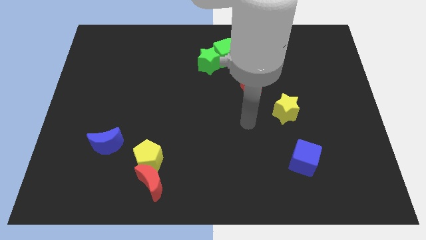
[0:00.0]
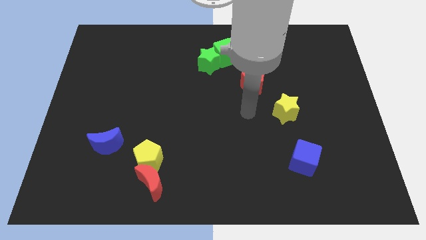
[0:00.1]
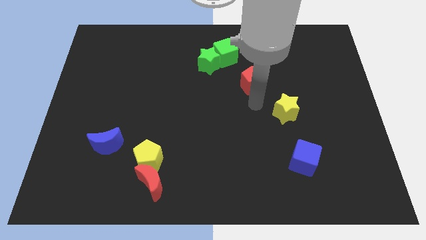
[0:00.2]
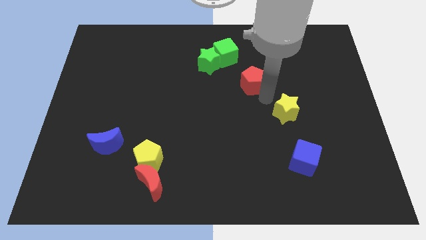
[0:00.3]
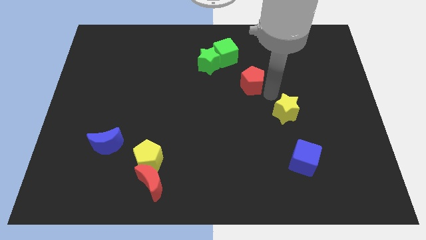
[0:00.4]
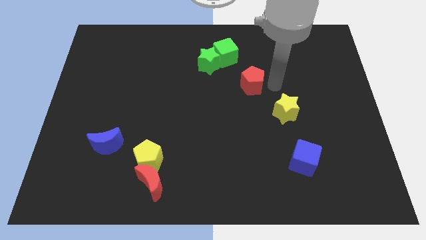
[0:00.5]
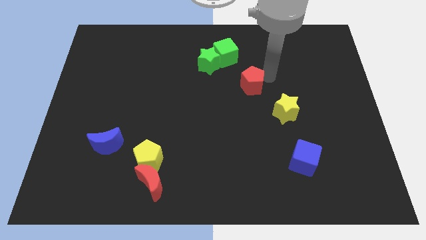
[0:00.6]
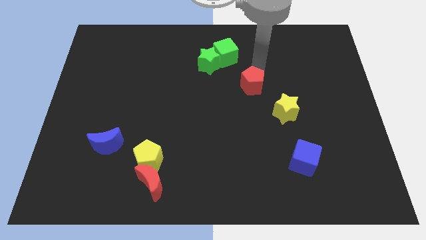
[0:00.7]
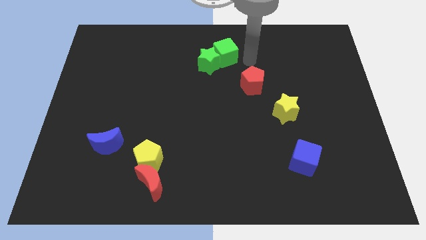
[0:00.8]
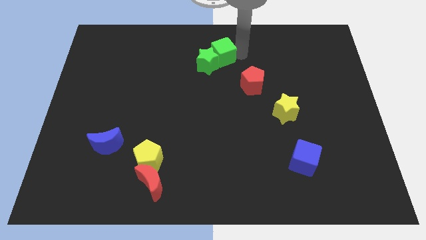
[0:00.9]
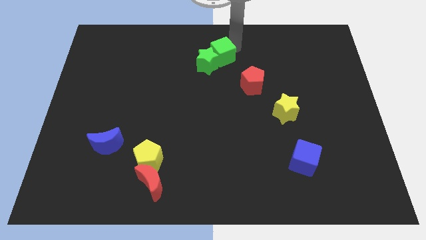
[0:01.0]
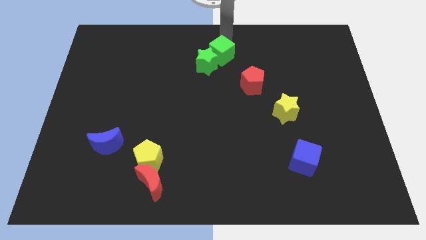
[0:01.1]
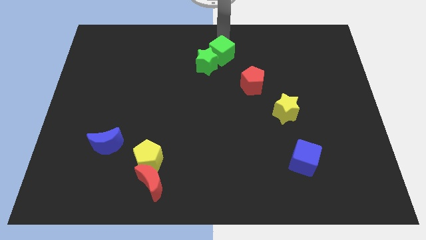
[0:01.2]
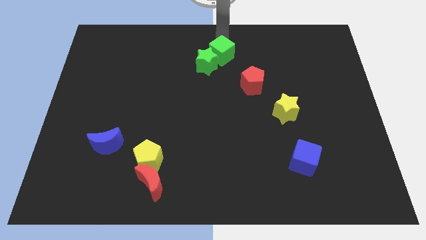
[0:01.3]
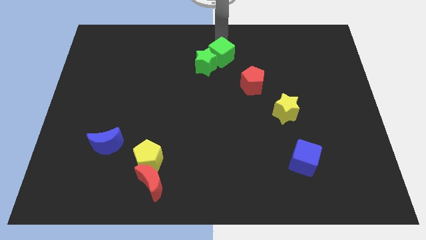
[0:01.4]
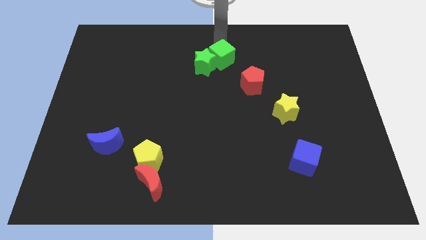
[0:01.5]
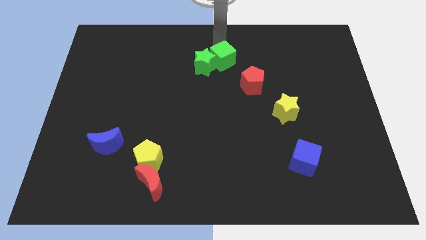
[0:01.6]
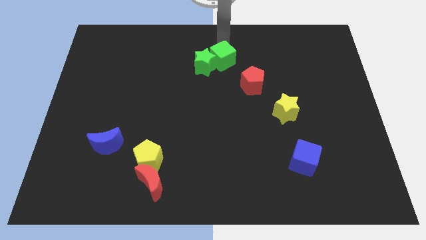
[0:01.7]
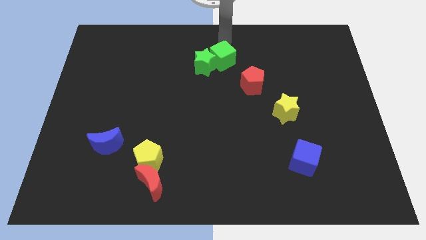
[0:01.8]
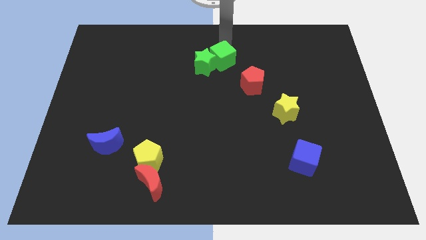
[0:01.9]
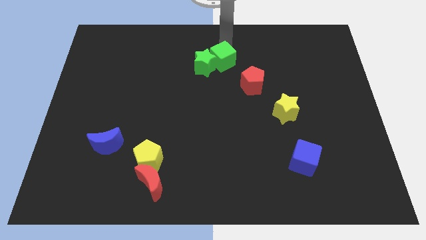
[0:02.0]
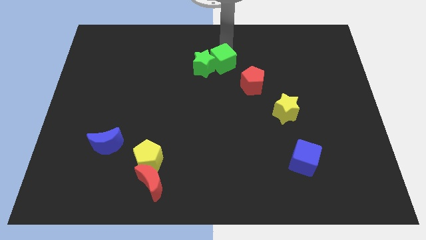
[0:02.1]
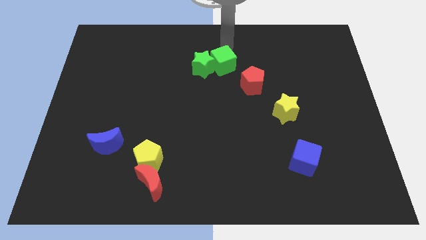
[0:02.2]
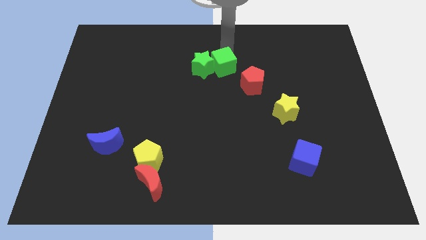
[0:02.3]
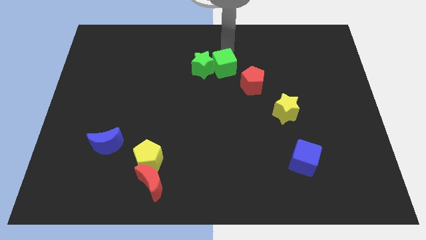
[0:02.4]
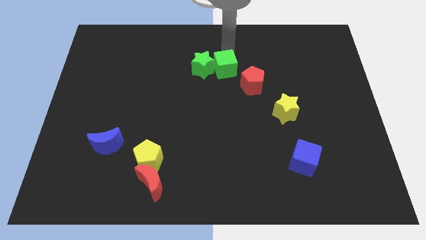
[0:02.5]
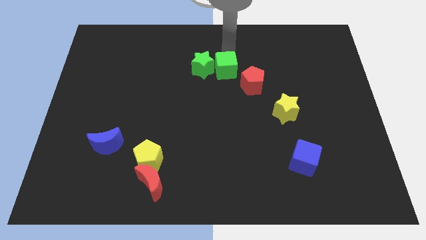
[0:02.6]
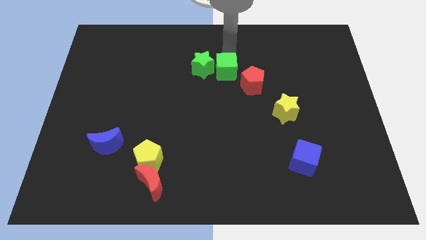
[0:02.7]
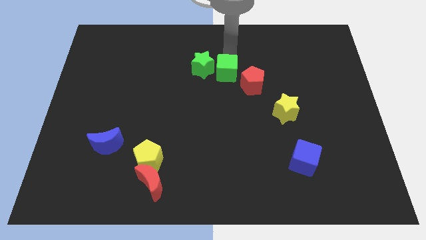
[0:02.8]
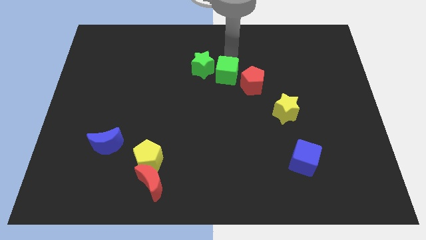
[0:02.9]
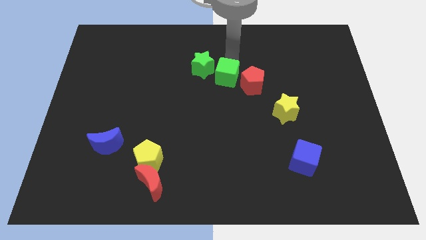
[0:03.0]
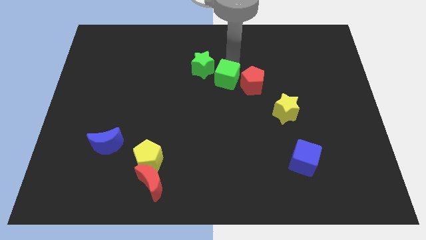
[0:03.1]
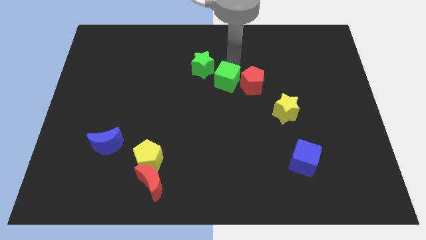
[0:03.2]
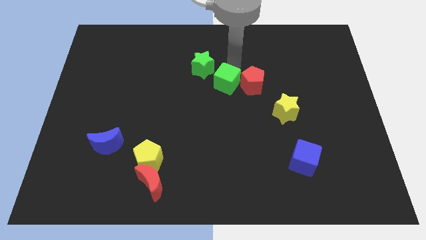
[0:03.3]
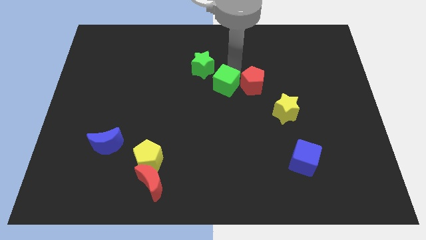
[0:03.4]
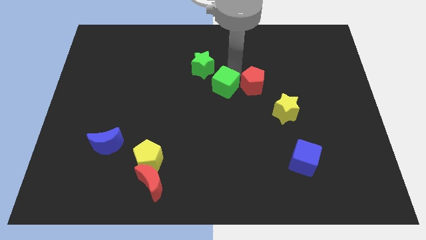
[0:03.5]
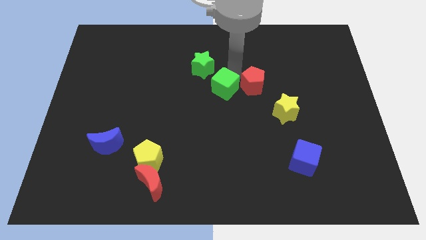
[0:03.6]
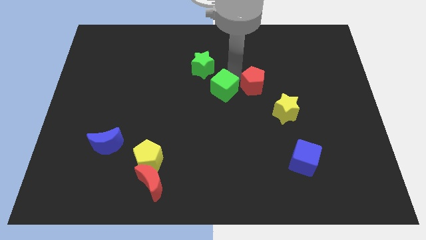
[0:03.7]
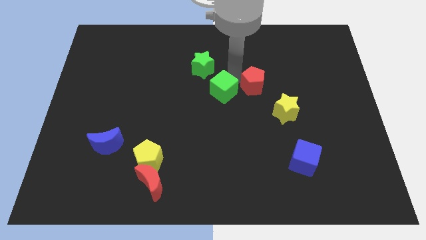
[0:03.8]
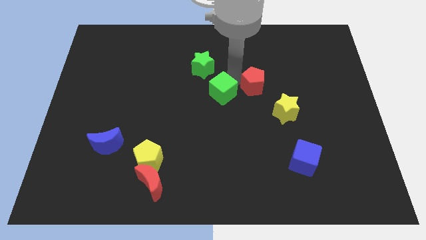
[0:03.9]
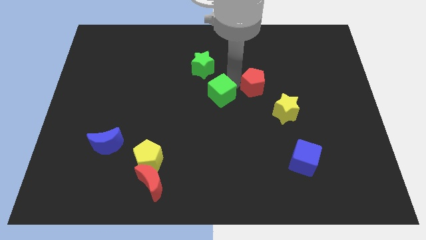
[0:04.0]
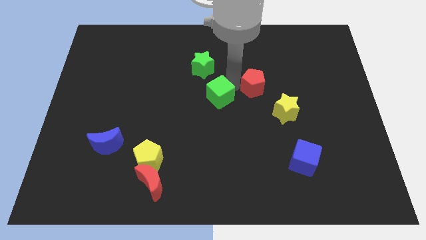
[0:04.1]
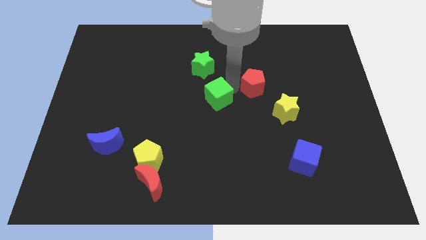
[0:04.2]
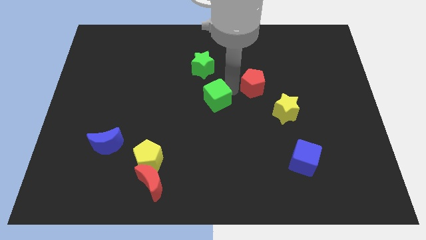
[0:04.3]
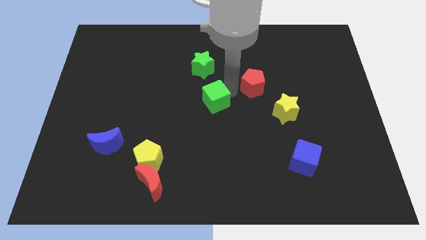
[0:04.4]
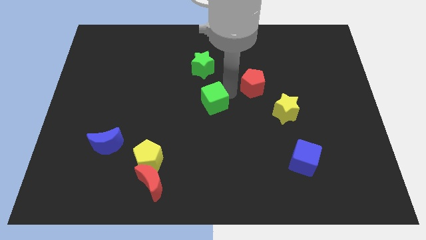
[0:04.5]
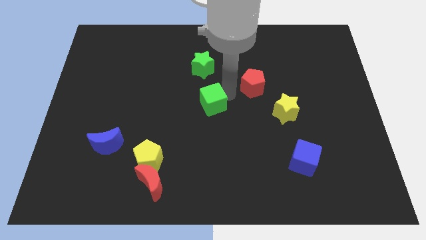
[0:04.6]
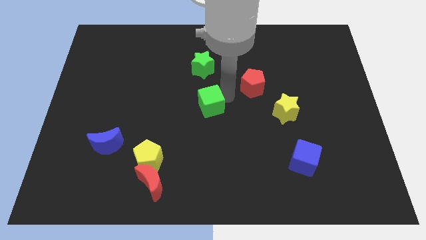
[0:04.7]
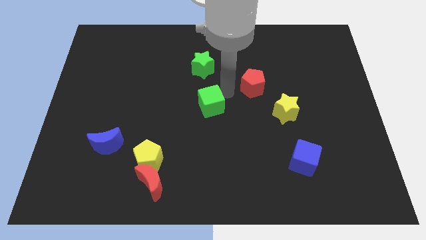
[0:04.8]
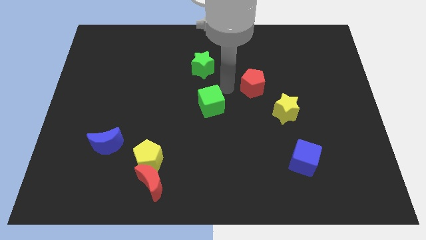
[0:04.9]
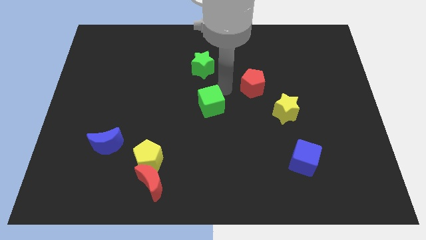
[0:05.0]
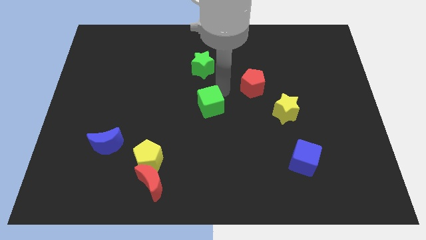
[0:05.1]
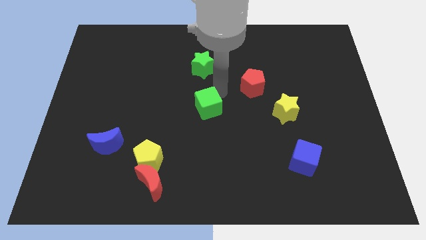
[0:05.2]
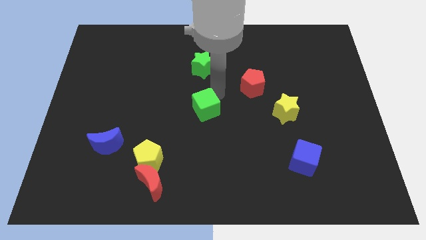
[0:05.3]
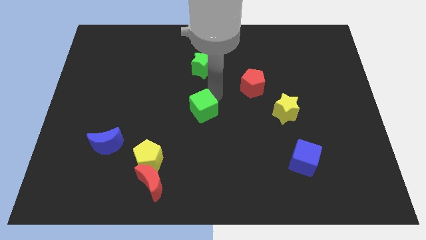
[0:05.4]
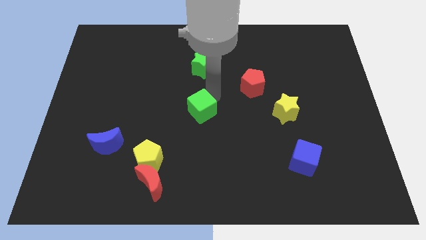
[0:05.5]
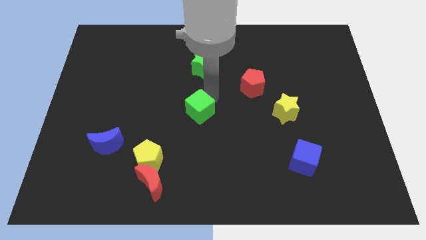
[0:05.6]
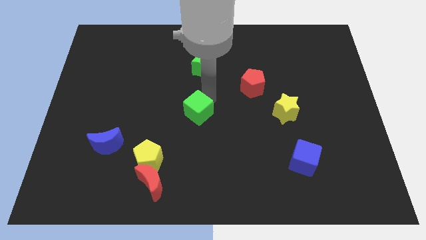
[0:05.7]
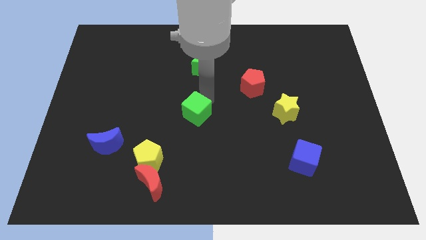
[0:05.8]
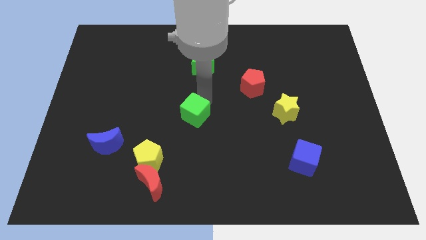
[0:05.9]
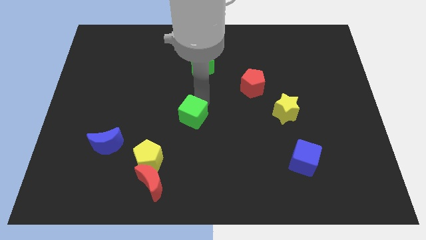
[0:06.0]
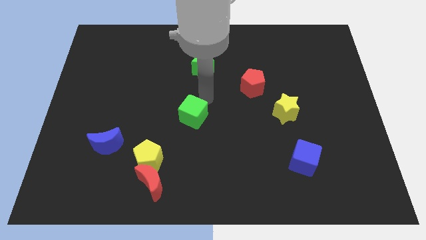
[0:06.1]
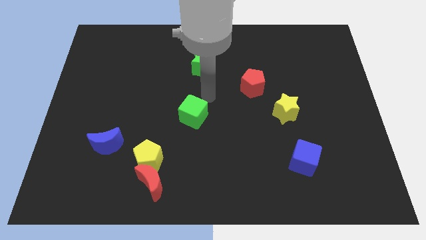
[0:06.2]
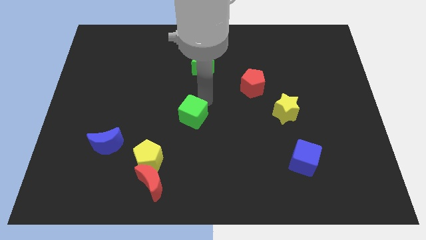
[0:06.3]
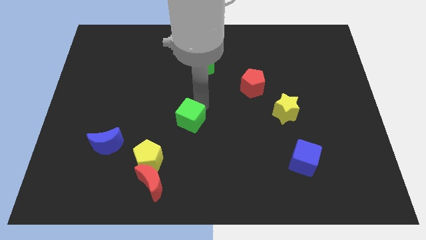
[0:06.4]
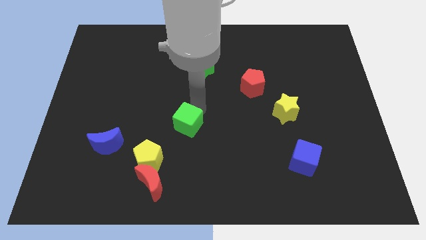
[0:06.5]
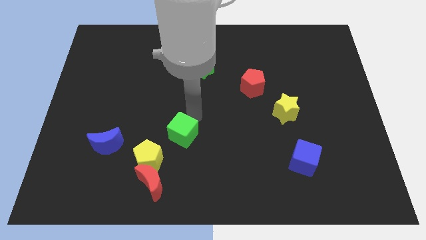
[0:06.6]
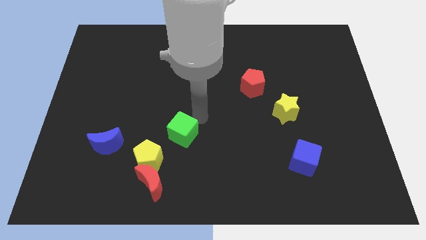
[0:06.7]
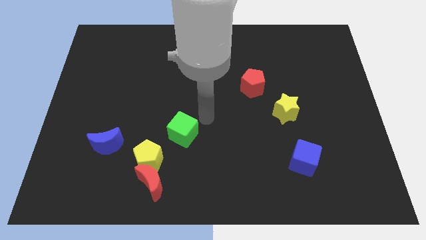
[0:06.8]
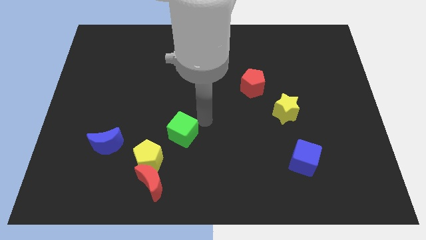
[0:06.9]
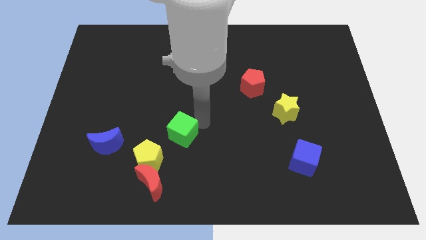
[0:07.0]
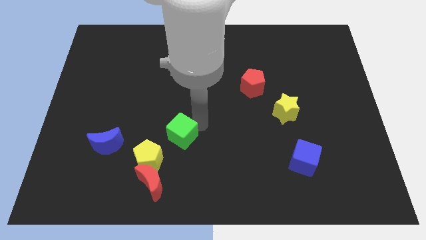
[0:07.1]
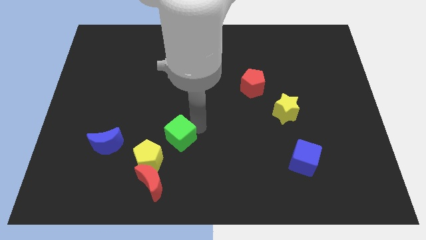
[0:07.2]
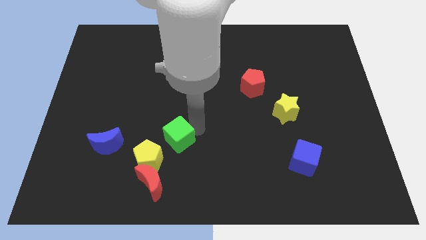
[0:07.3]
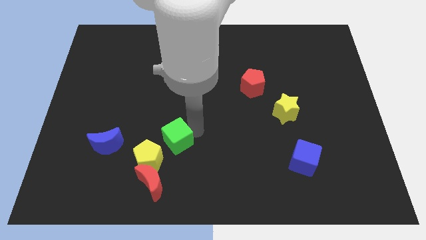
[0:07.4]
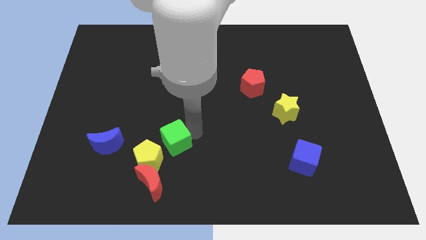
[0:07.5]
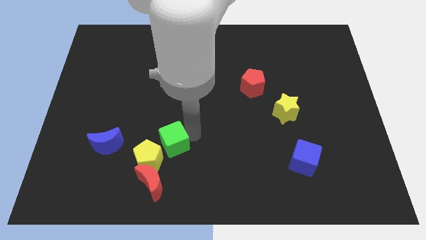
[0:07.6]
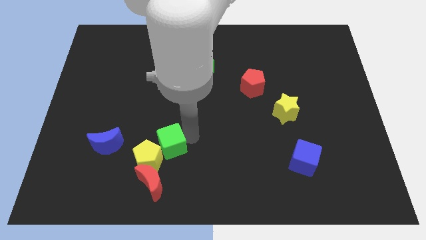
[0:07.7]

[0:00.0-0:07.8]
slide the green cube next to the yellow pentagon
